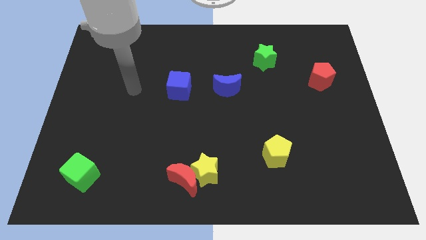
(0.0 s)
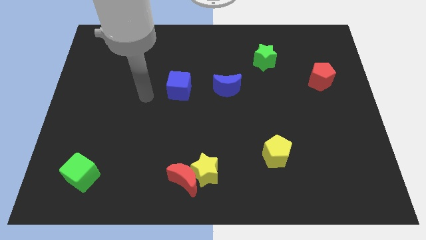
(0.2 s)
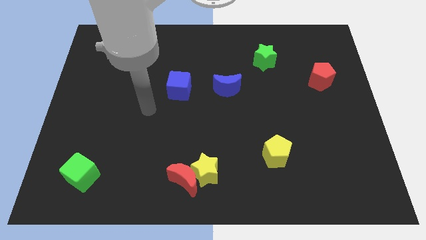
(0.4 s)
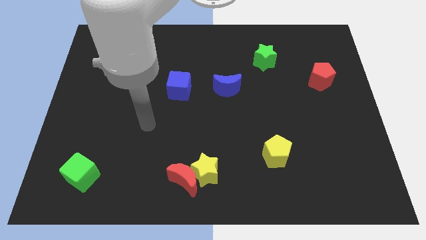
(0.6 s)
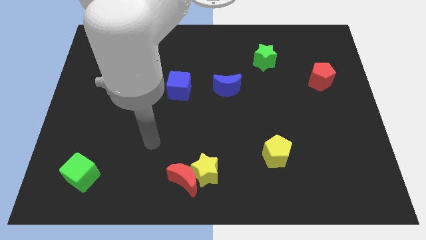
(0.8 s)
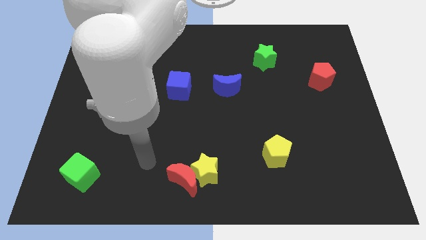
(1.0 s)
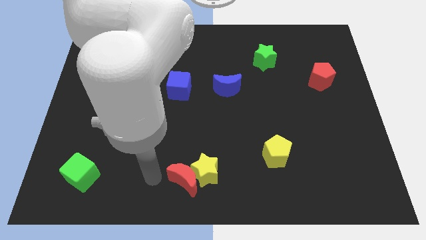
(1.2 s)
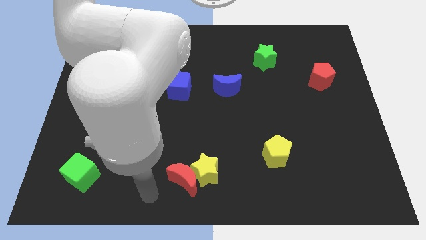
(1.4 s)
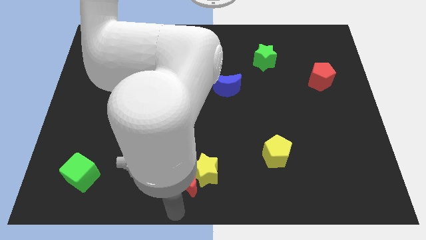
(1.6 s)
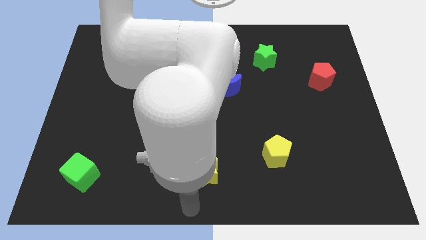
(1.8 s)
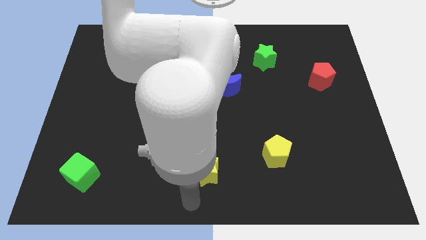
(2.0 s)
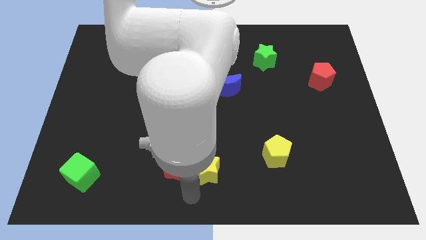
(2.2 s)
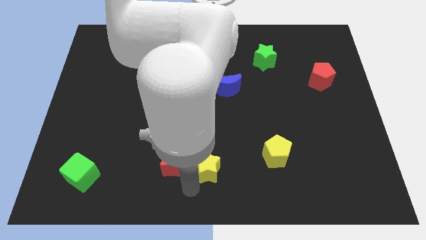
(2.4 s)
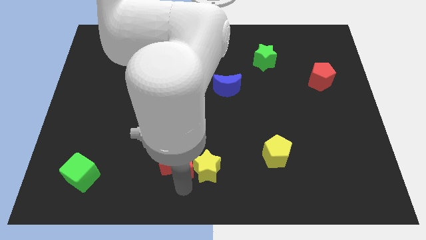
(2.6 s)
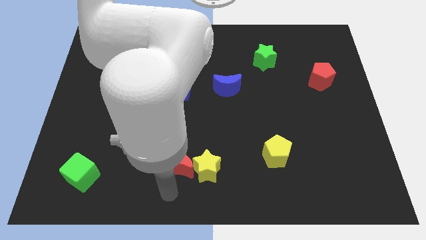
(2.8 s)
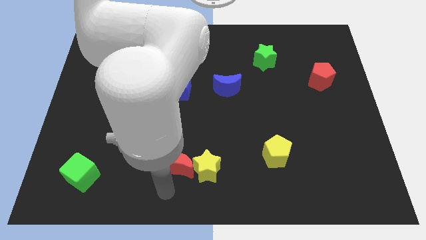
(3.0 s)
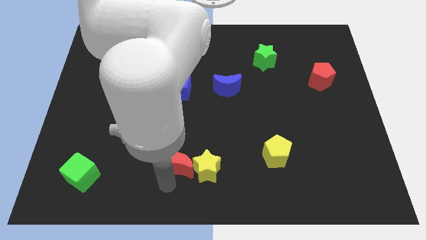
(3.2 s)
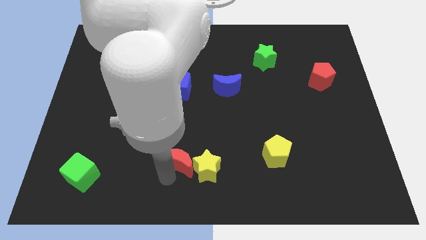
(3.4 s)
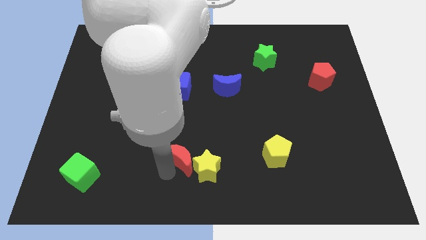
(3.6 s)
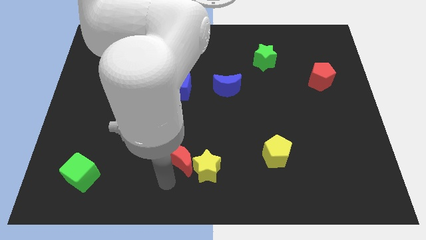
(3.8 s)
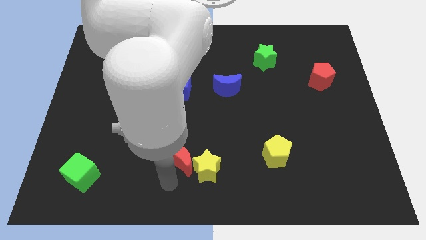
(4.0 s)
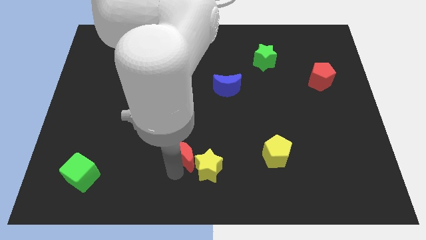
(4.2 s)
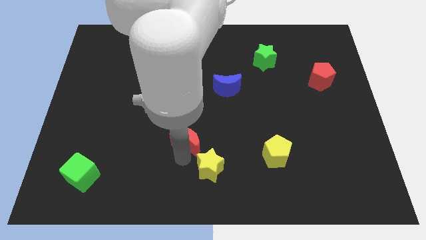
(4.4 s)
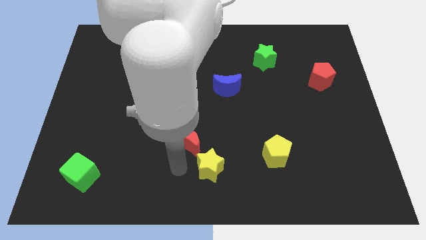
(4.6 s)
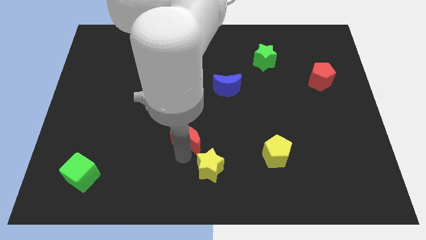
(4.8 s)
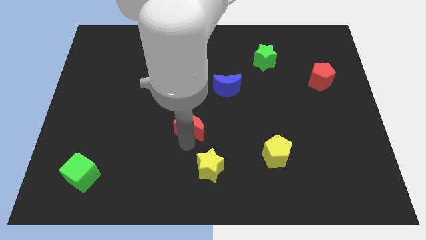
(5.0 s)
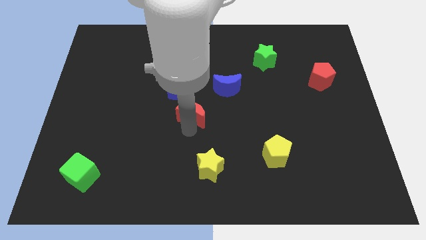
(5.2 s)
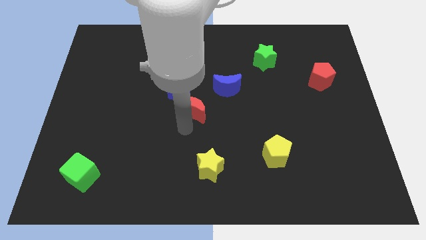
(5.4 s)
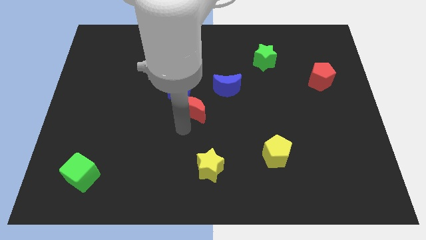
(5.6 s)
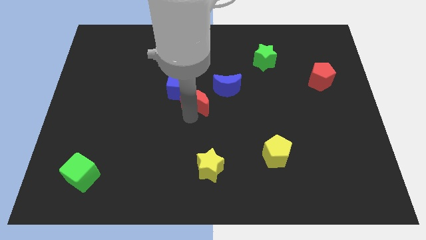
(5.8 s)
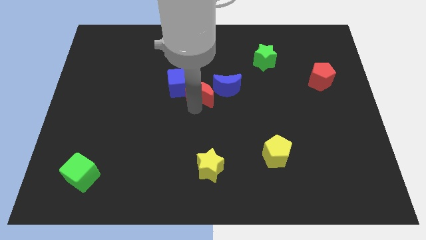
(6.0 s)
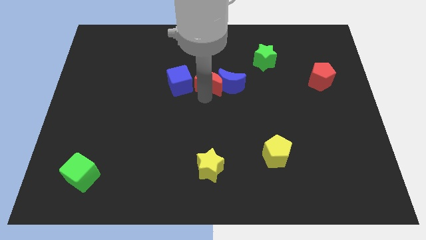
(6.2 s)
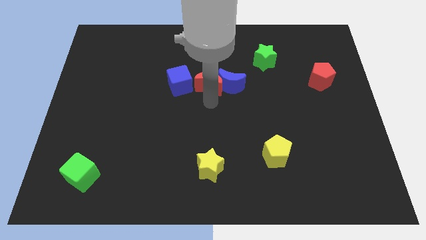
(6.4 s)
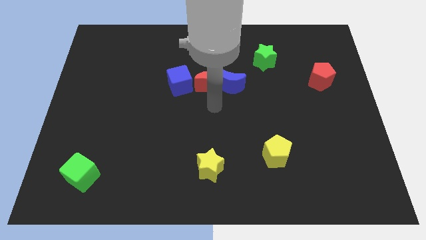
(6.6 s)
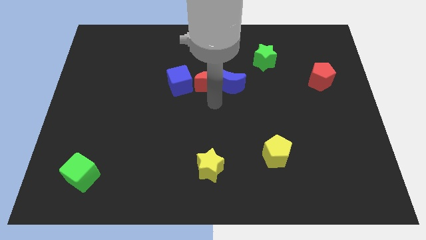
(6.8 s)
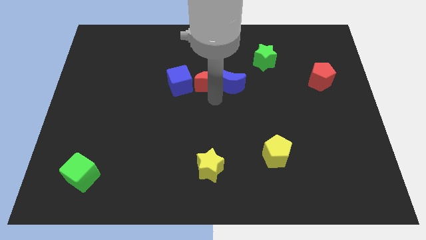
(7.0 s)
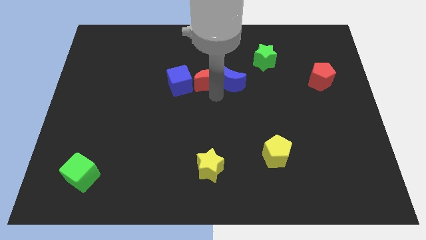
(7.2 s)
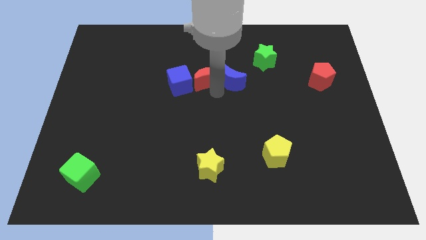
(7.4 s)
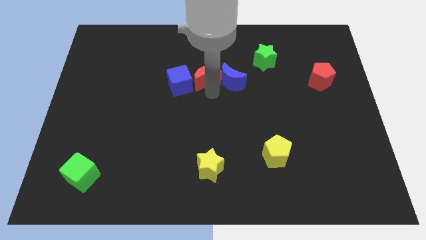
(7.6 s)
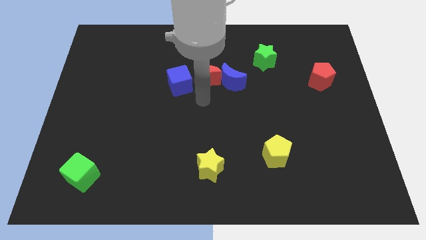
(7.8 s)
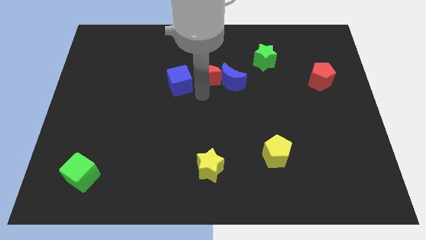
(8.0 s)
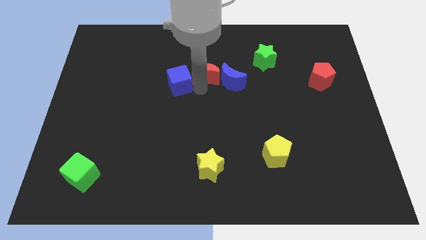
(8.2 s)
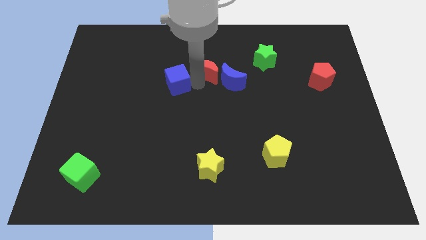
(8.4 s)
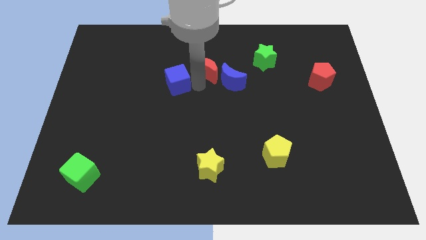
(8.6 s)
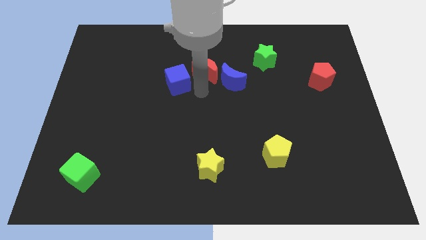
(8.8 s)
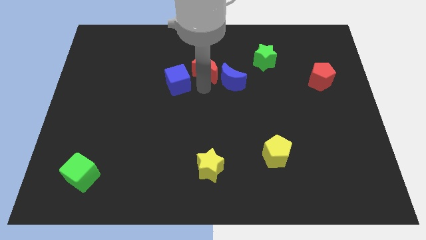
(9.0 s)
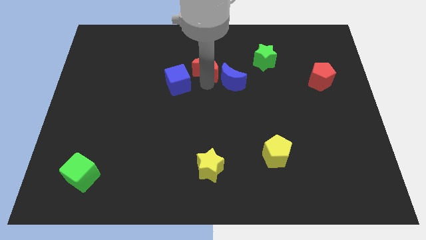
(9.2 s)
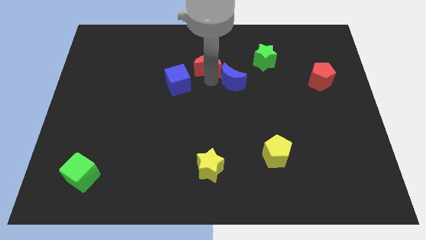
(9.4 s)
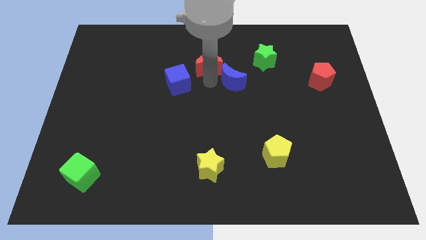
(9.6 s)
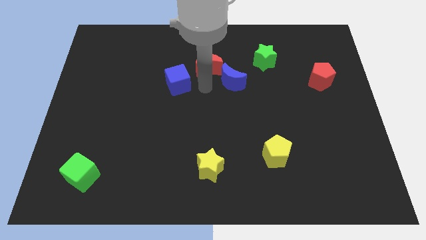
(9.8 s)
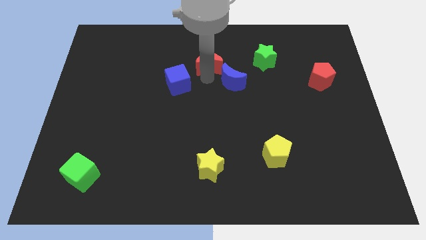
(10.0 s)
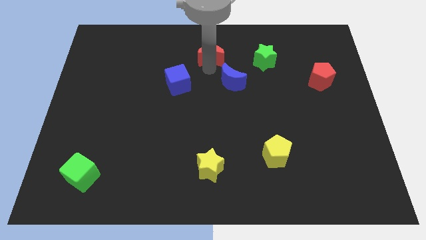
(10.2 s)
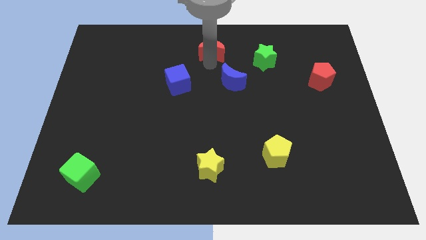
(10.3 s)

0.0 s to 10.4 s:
push the red moon to the top side

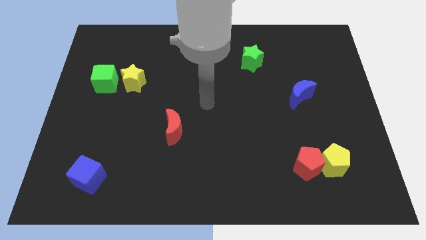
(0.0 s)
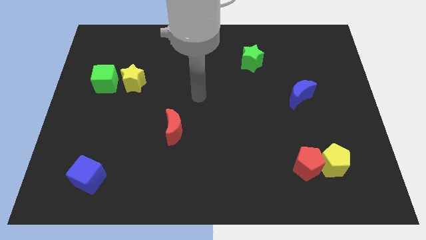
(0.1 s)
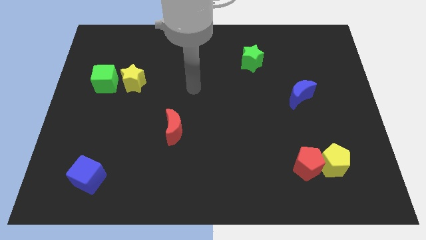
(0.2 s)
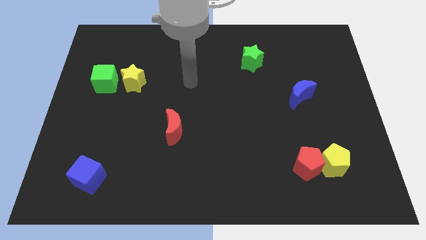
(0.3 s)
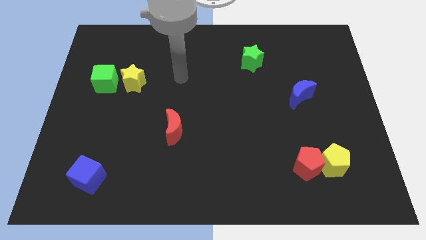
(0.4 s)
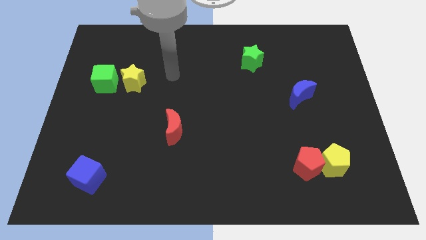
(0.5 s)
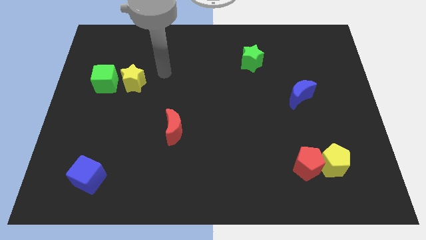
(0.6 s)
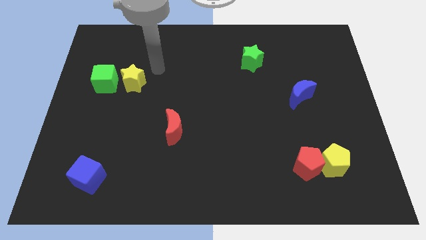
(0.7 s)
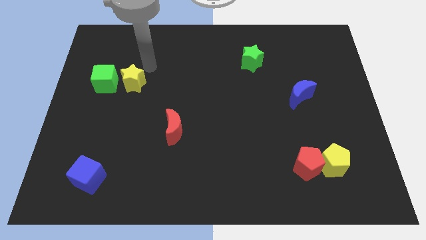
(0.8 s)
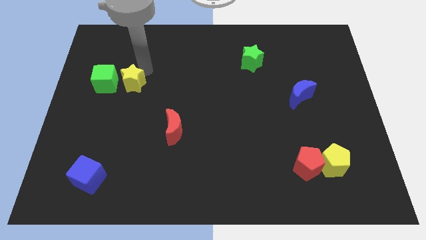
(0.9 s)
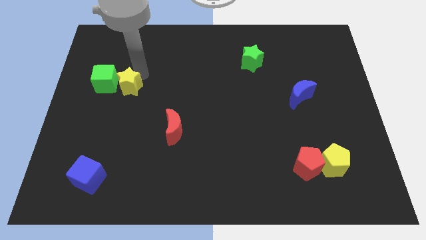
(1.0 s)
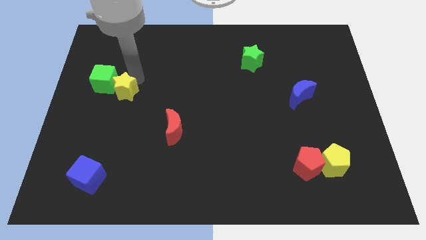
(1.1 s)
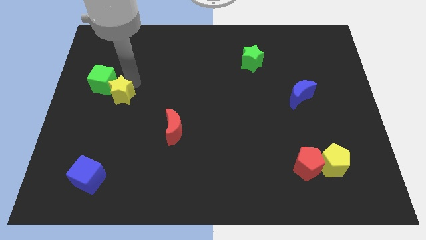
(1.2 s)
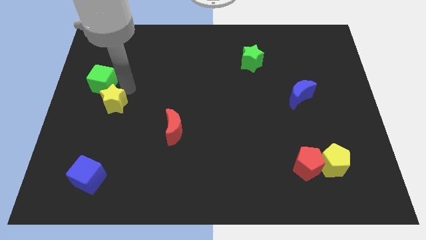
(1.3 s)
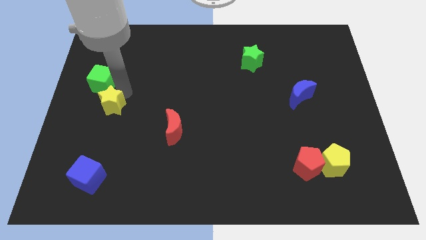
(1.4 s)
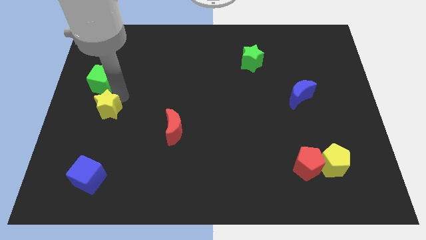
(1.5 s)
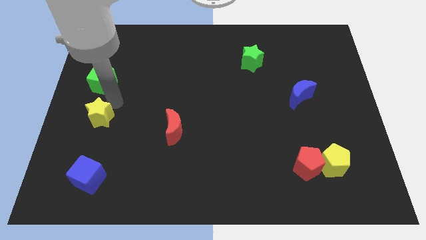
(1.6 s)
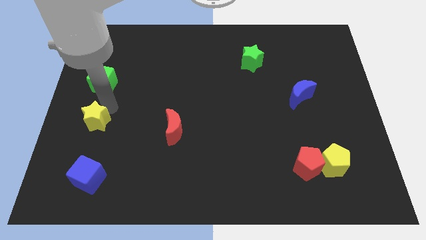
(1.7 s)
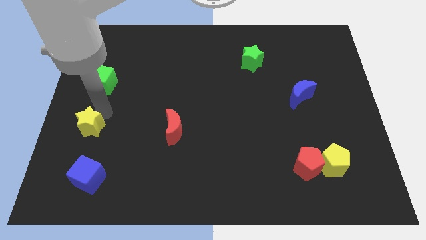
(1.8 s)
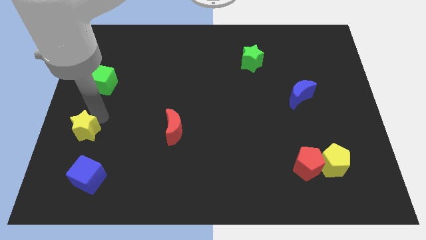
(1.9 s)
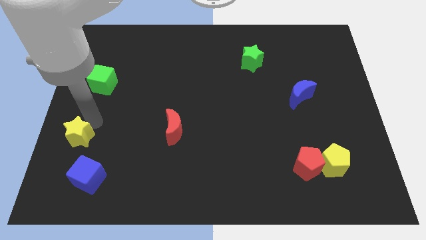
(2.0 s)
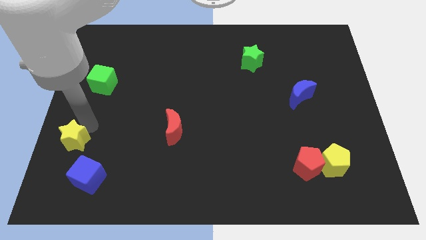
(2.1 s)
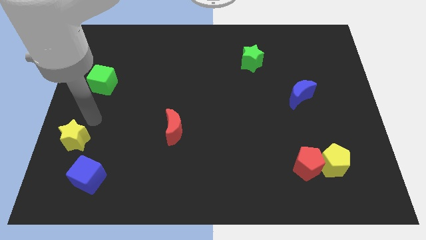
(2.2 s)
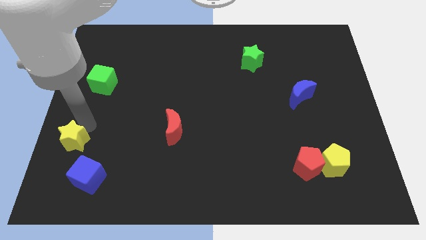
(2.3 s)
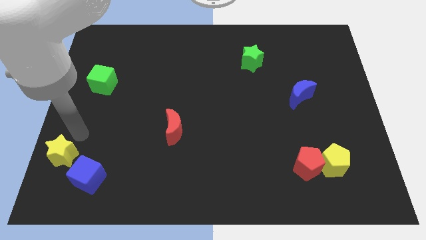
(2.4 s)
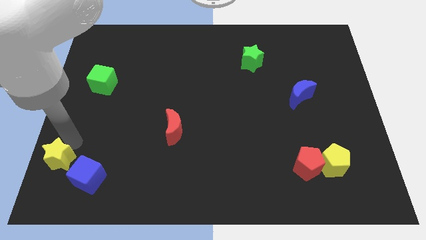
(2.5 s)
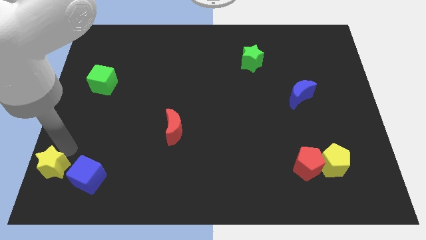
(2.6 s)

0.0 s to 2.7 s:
push the yellow star to the lower left corner
